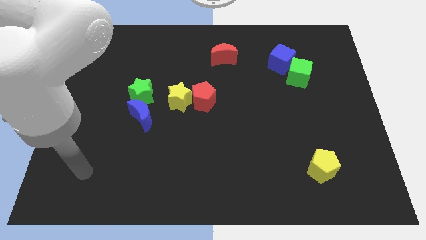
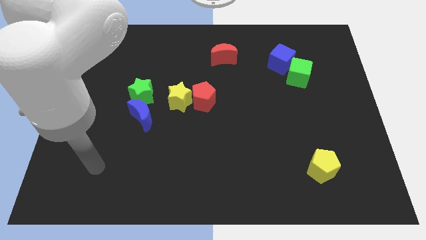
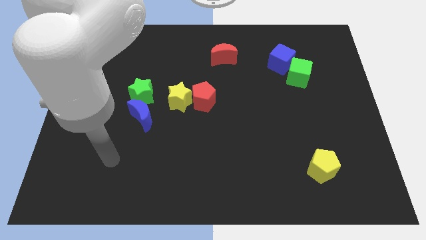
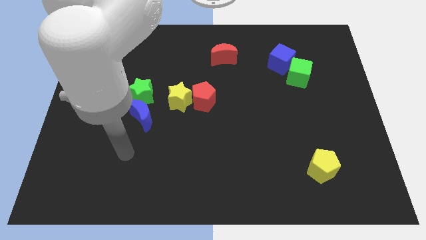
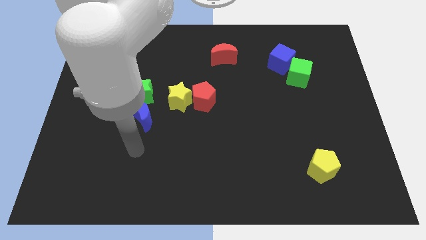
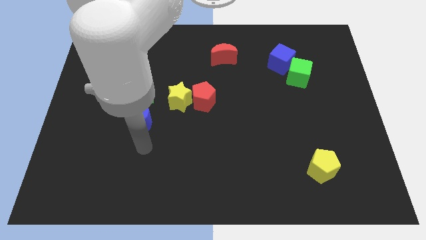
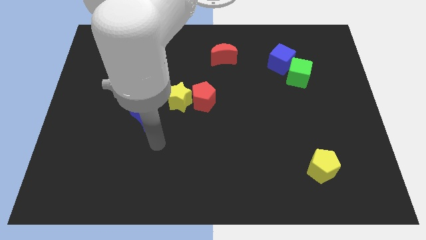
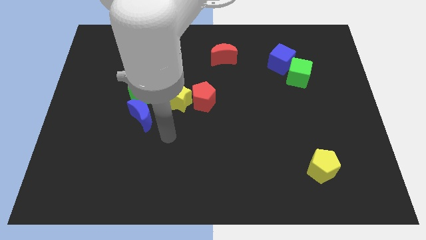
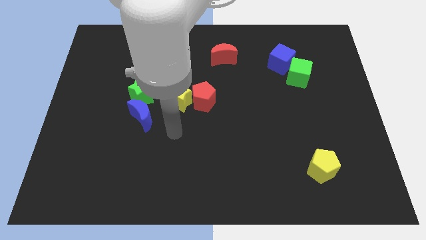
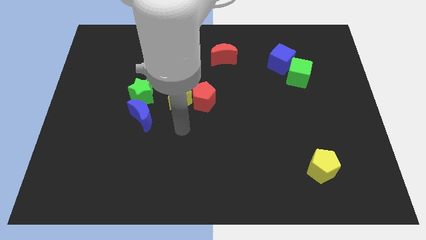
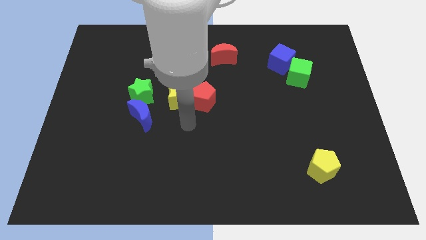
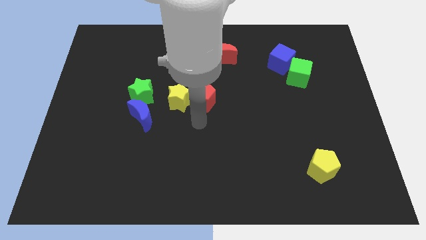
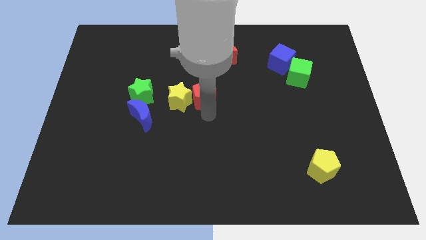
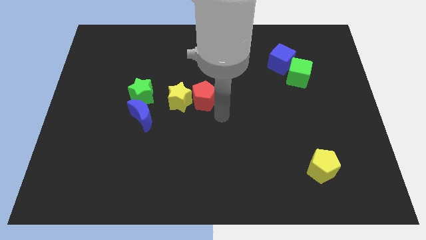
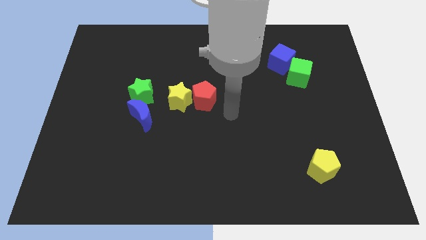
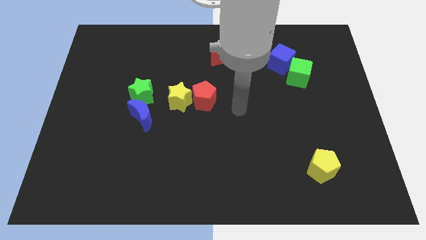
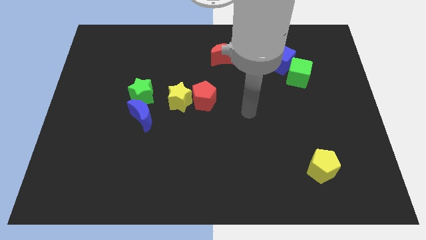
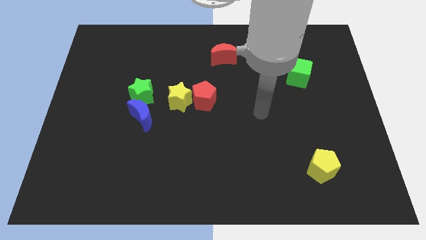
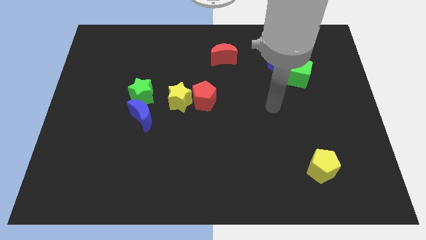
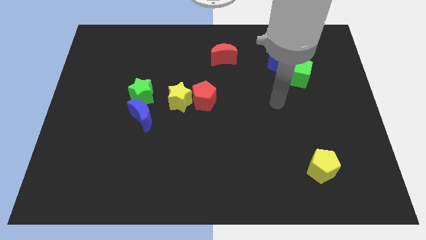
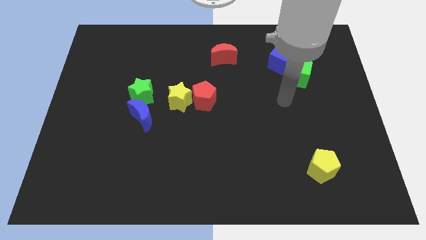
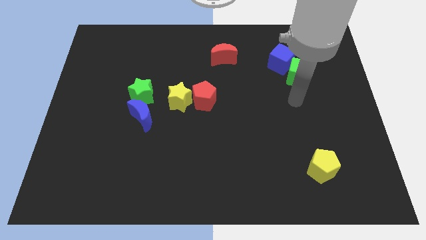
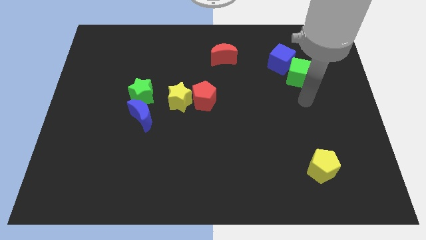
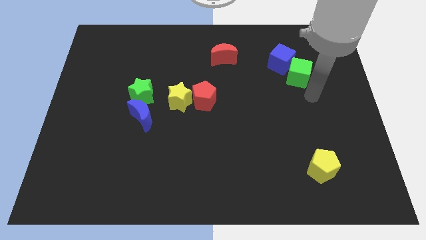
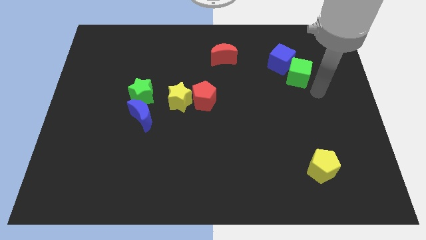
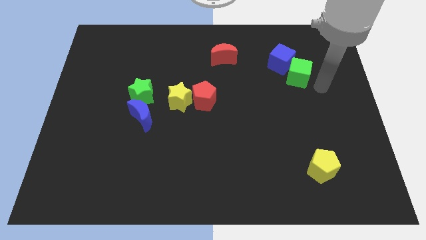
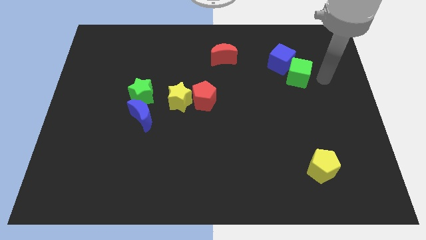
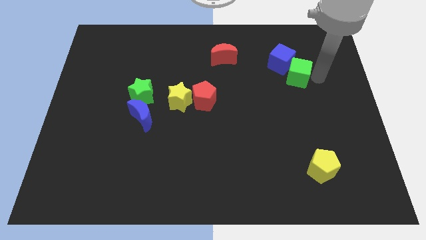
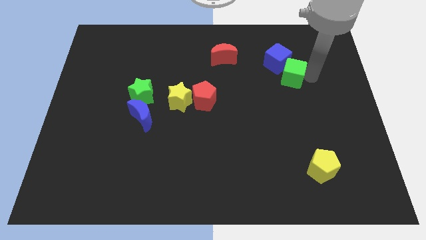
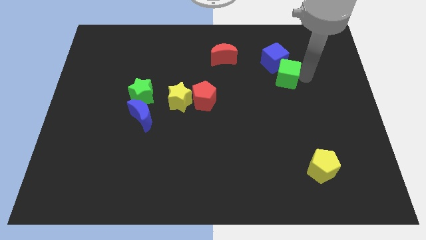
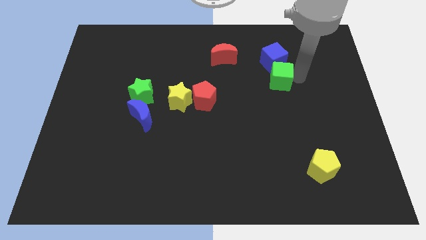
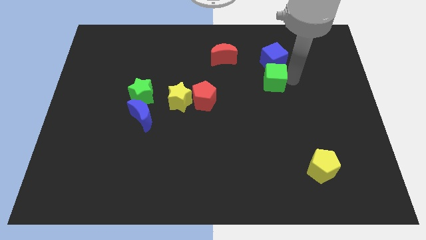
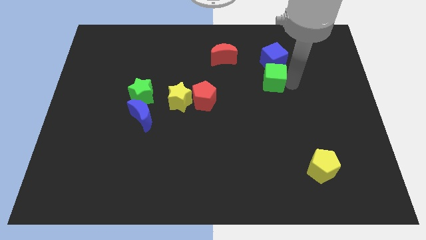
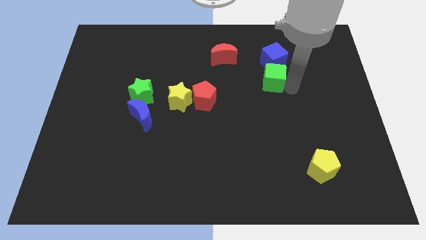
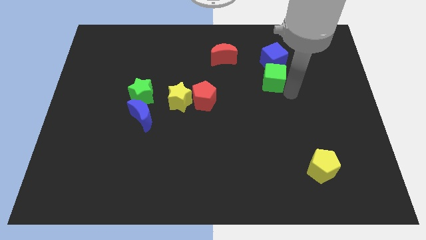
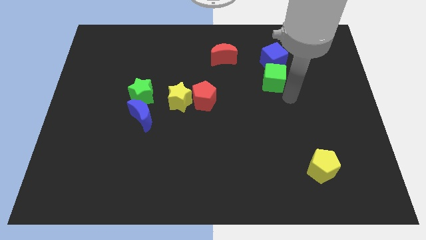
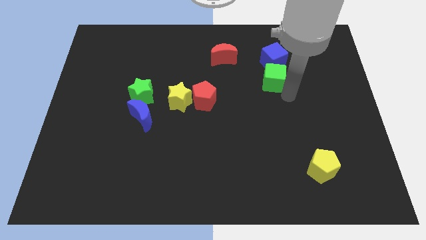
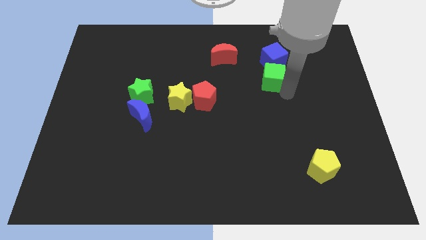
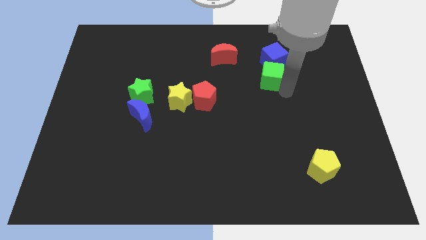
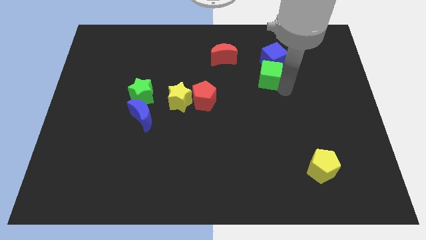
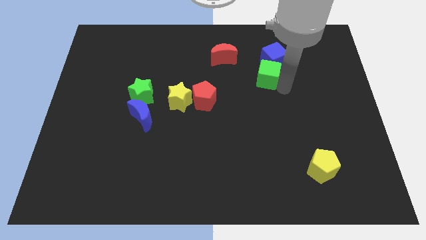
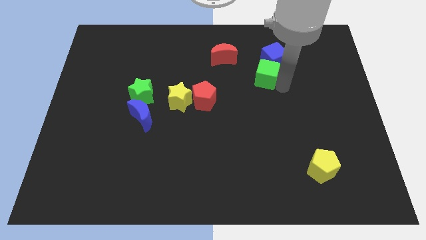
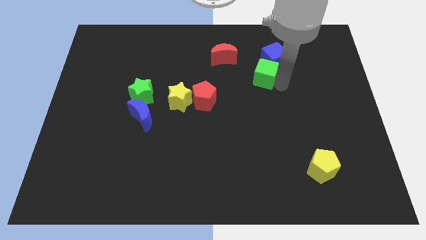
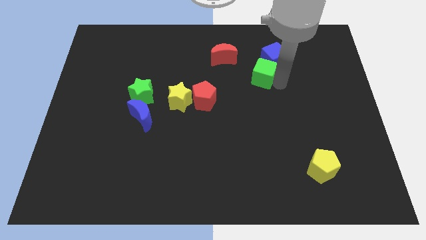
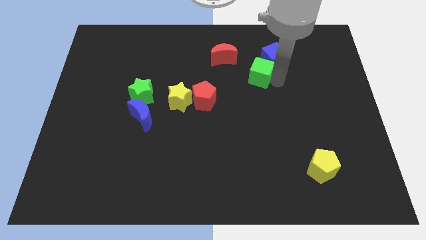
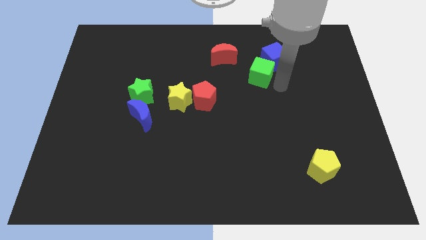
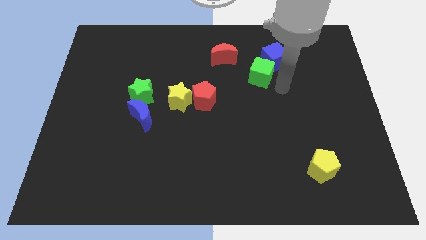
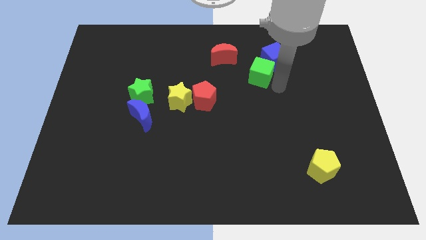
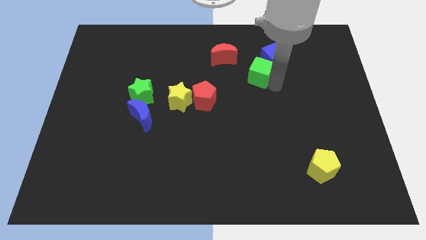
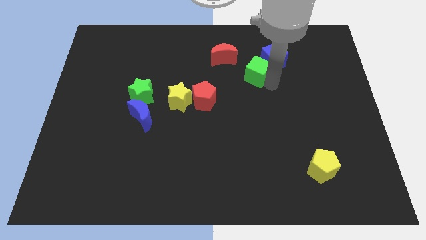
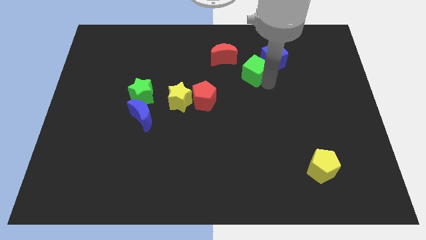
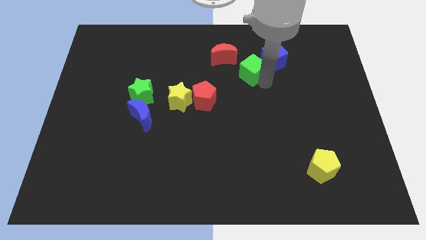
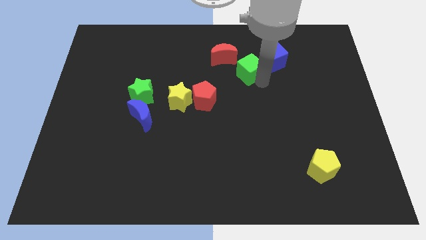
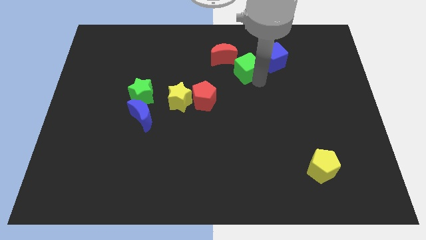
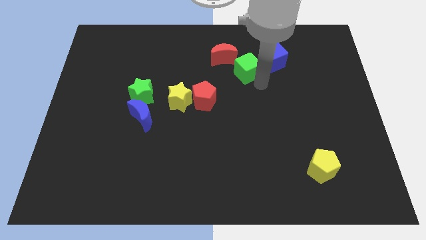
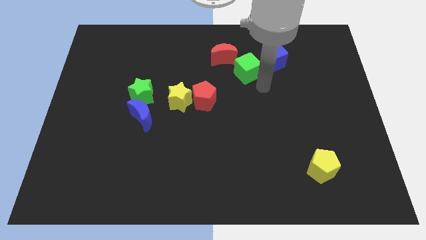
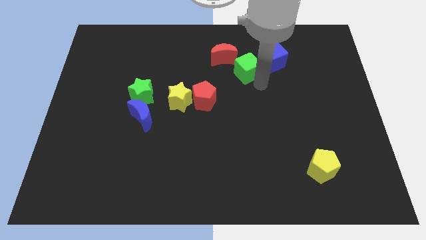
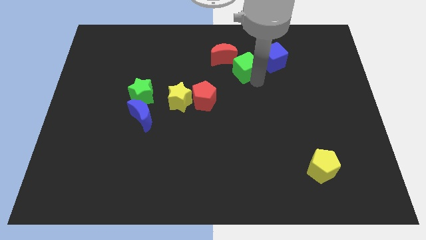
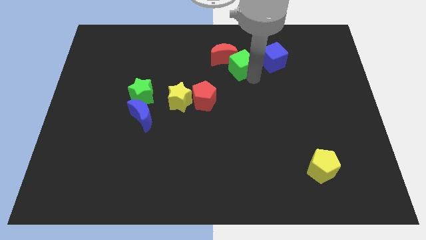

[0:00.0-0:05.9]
move the green cube to the red moon

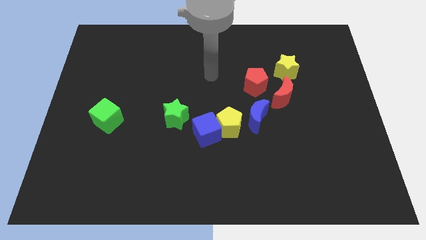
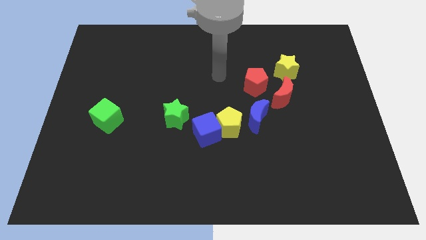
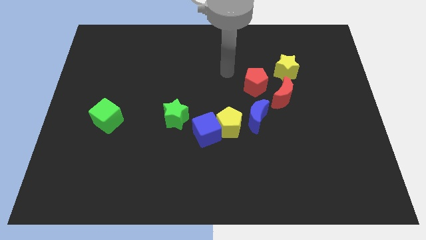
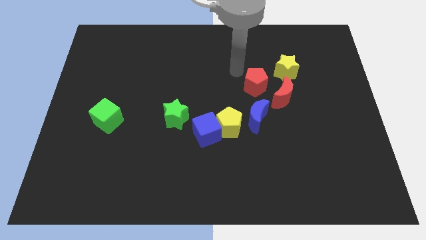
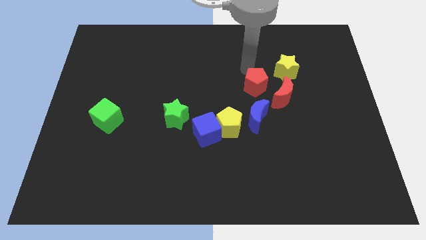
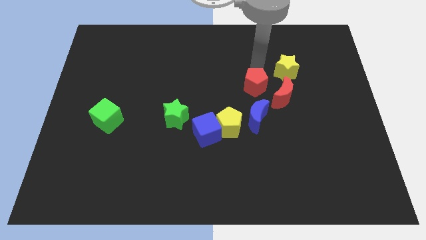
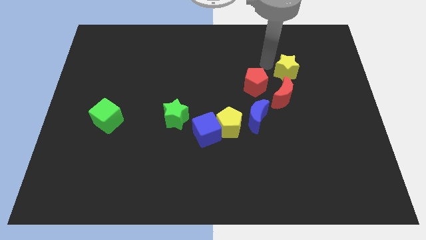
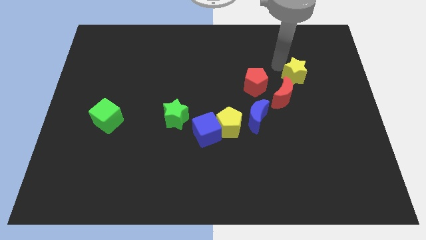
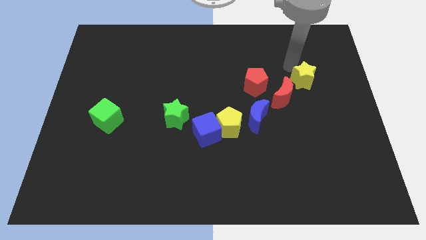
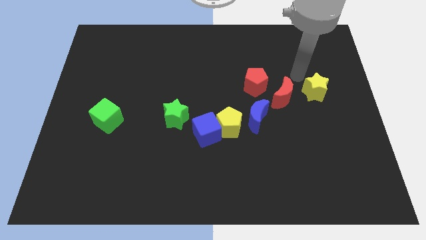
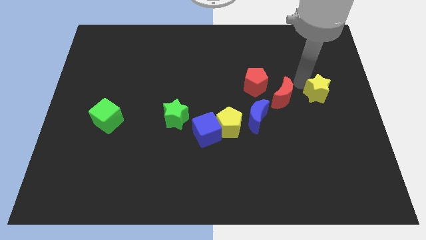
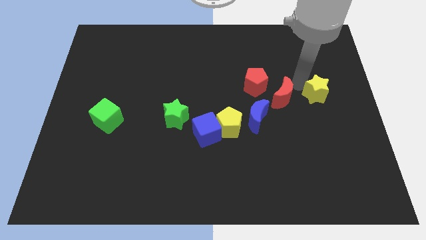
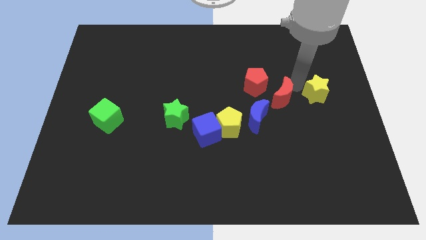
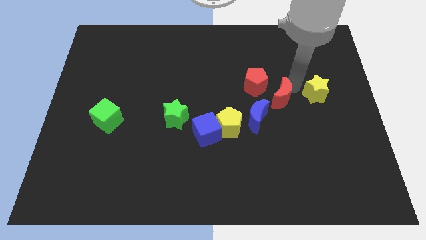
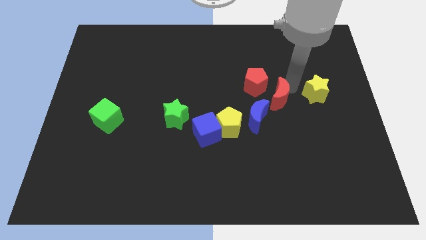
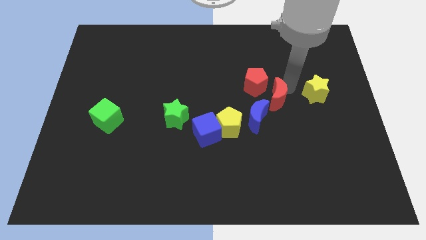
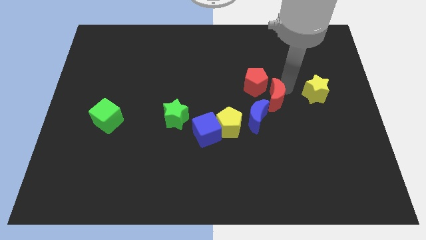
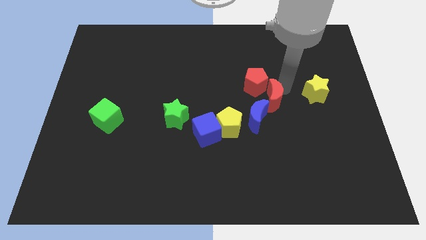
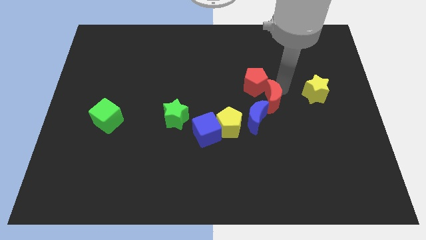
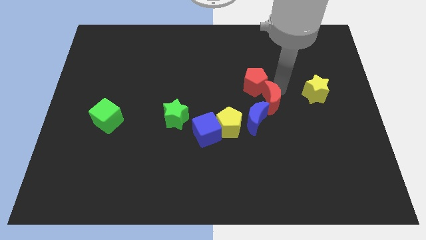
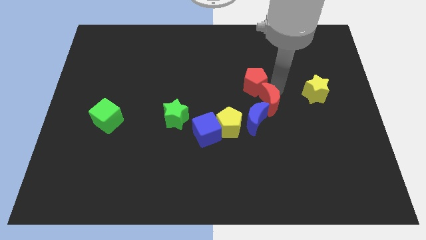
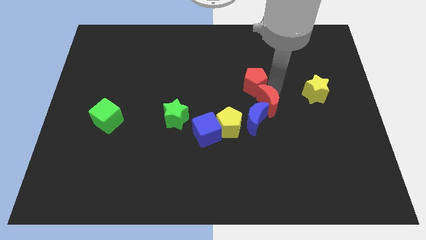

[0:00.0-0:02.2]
put the red moon towards the blue moon
